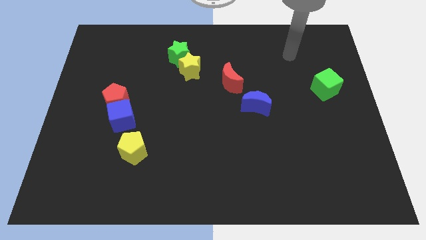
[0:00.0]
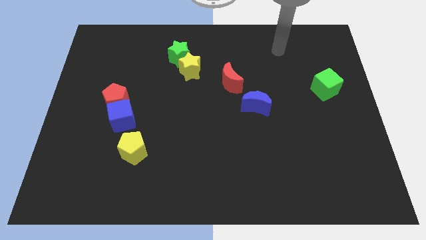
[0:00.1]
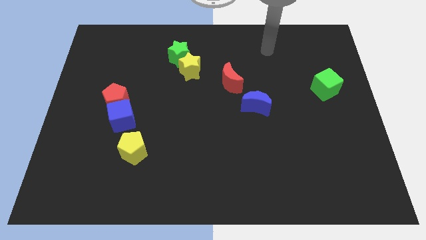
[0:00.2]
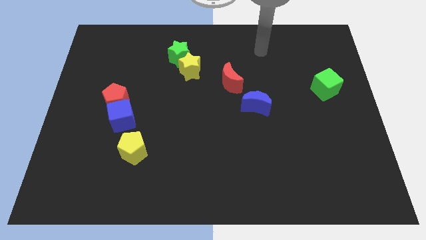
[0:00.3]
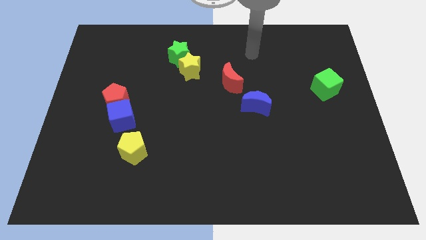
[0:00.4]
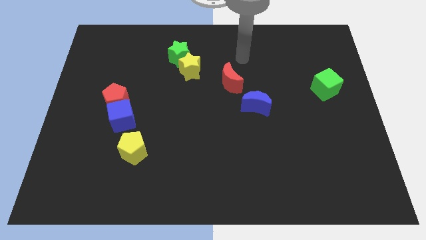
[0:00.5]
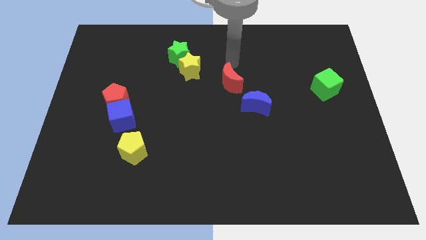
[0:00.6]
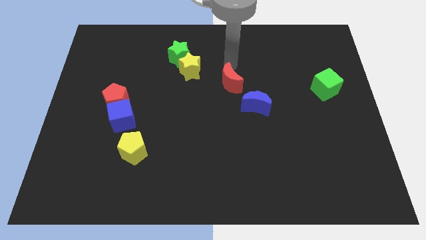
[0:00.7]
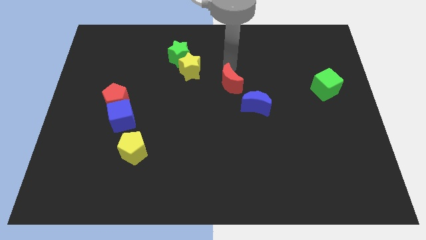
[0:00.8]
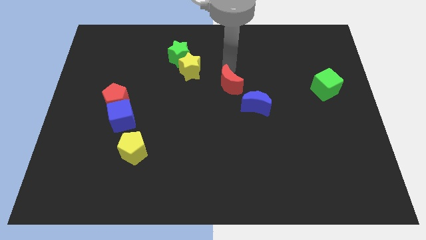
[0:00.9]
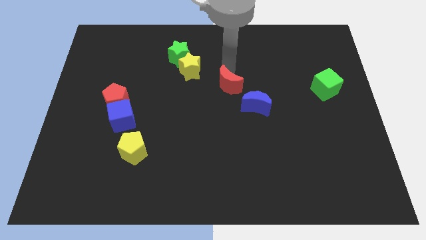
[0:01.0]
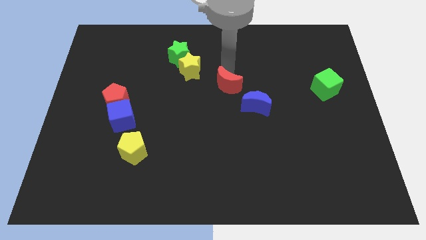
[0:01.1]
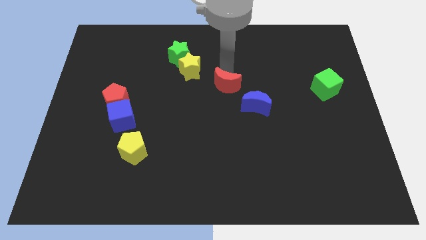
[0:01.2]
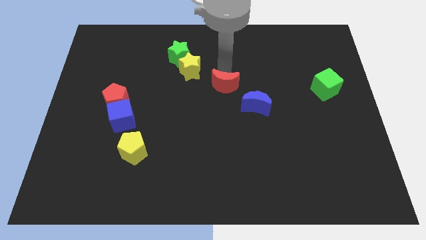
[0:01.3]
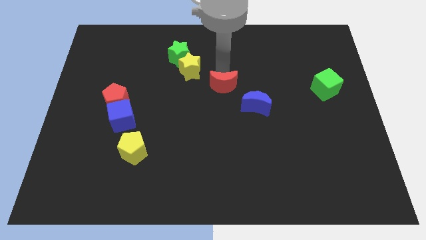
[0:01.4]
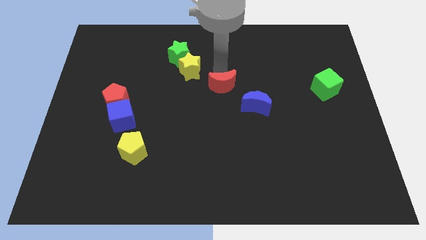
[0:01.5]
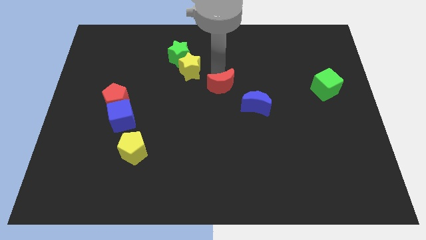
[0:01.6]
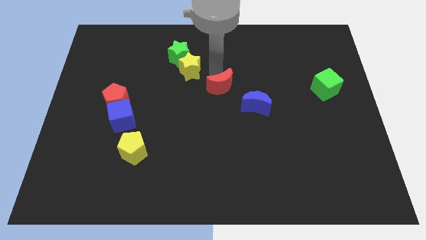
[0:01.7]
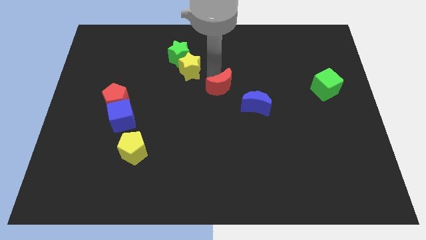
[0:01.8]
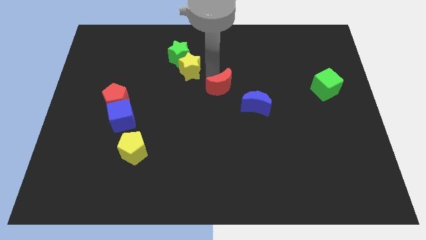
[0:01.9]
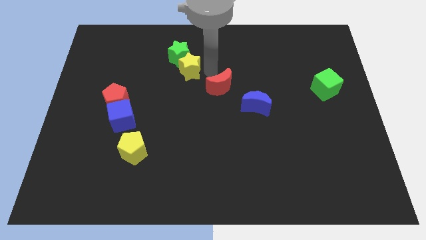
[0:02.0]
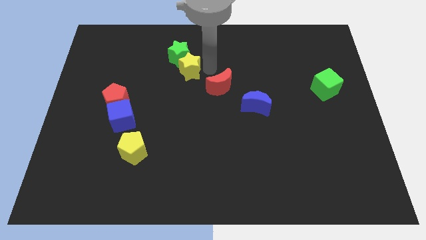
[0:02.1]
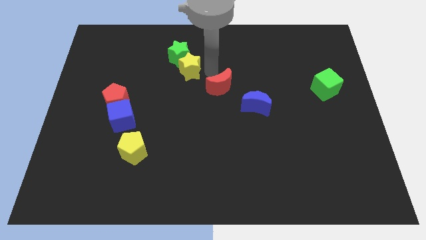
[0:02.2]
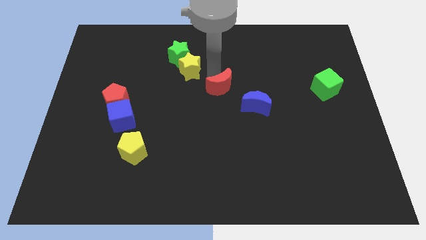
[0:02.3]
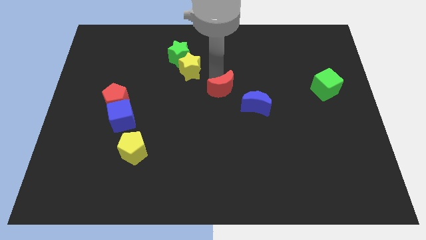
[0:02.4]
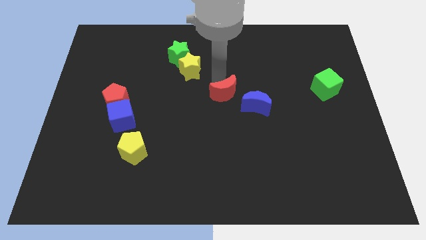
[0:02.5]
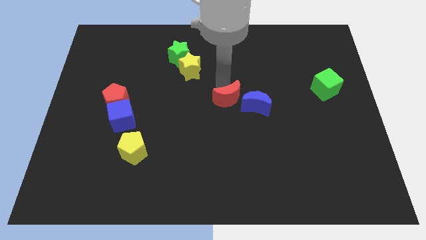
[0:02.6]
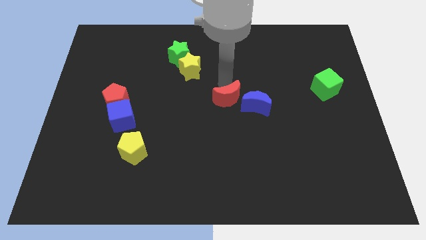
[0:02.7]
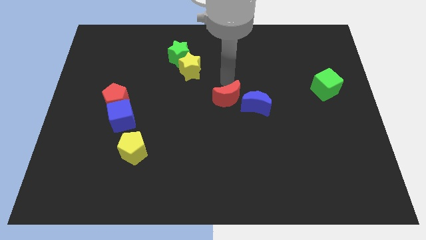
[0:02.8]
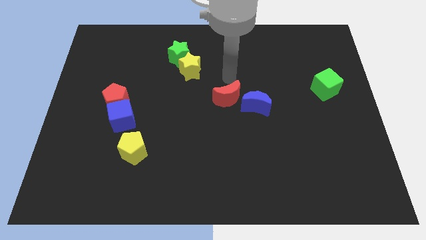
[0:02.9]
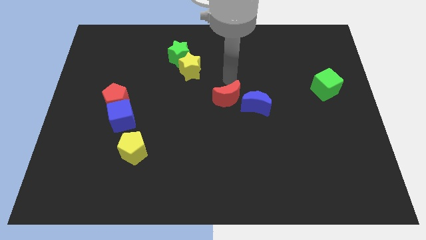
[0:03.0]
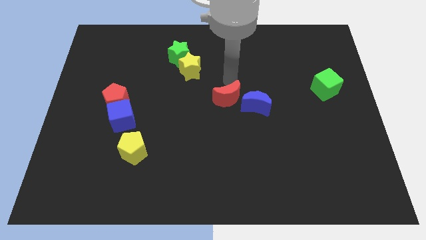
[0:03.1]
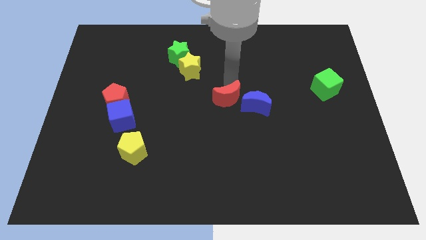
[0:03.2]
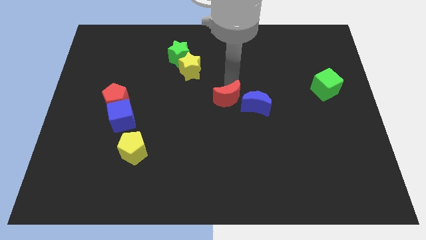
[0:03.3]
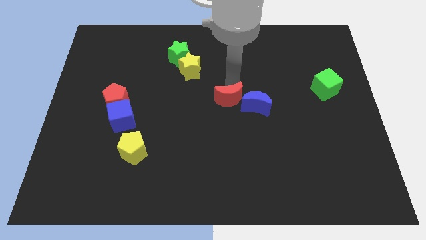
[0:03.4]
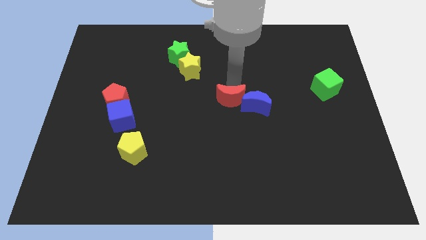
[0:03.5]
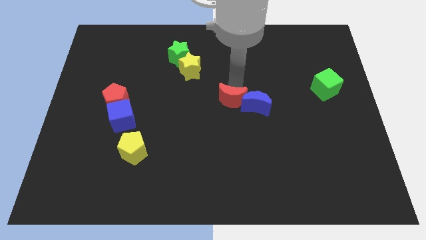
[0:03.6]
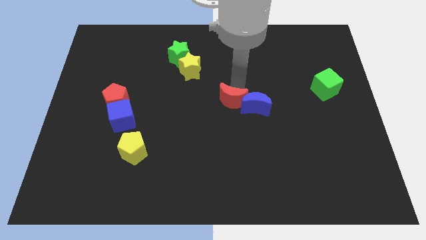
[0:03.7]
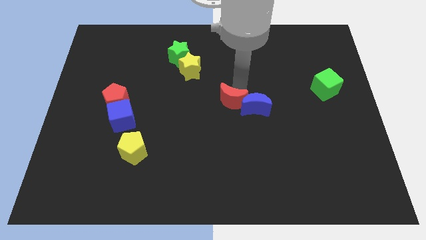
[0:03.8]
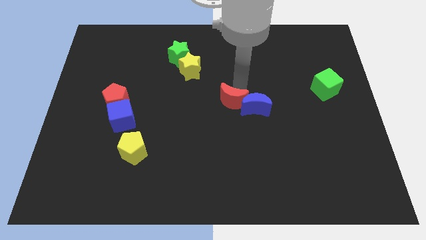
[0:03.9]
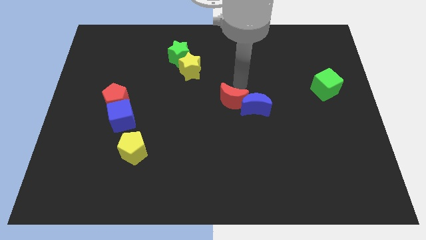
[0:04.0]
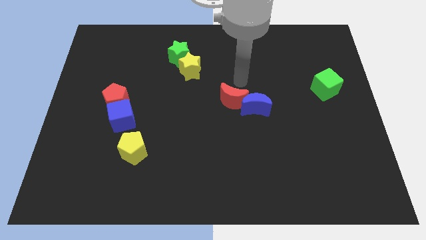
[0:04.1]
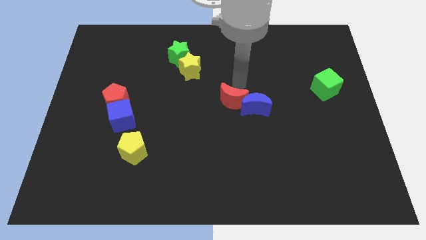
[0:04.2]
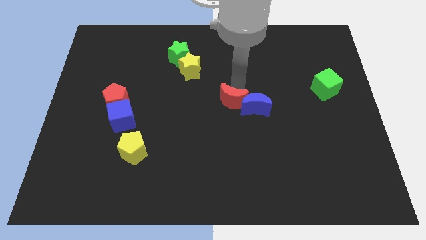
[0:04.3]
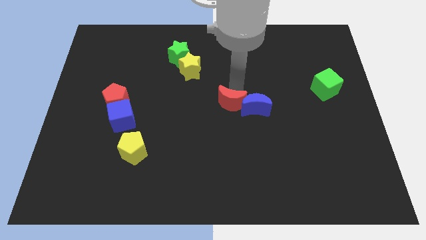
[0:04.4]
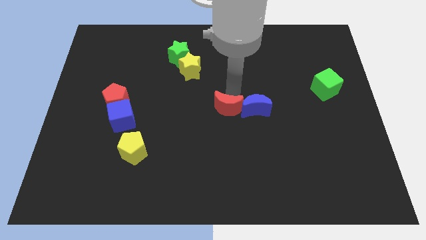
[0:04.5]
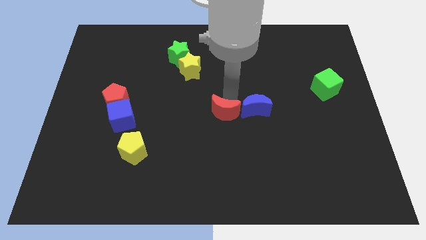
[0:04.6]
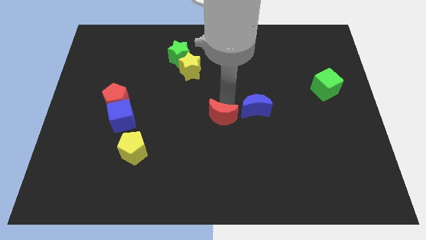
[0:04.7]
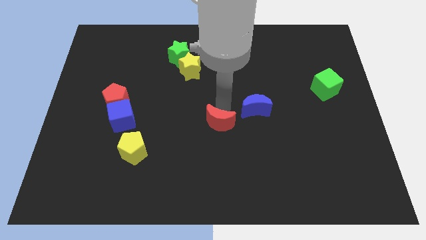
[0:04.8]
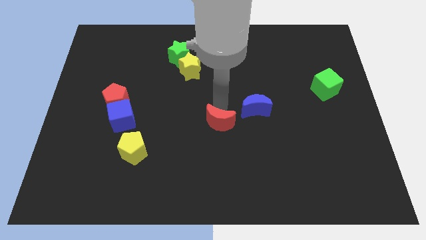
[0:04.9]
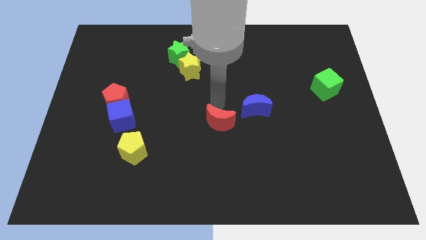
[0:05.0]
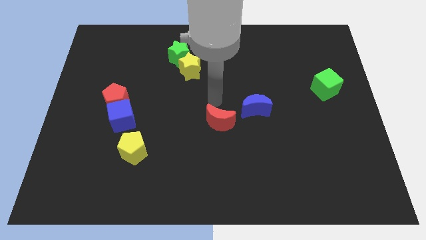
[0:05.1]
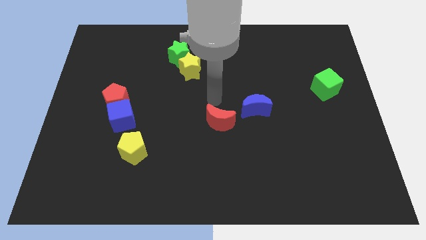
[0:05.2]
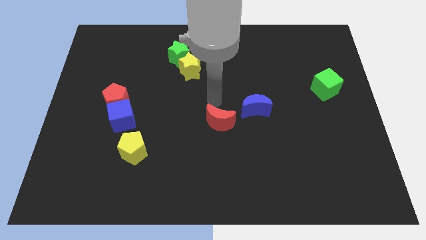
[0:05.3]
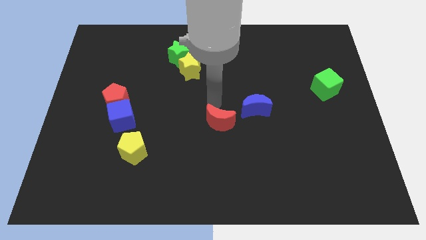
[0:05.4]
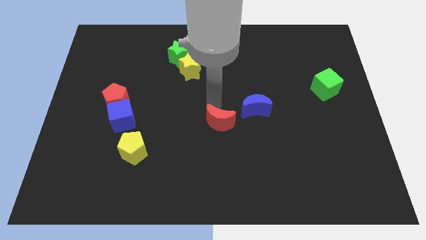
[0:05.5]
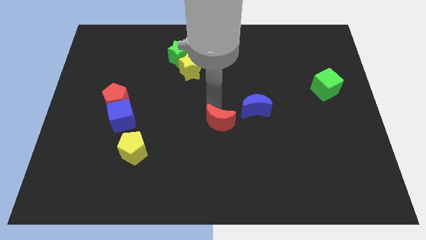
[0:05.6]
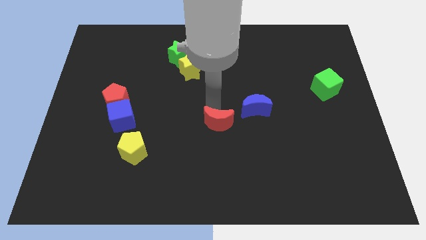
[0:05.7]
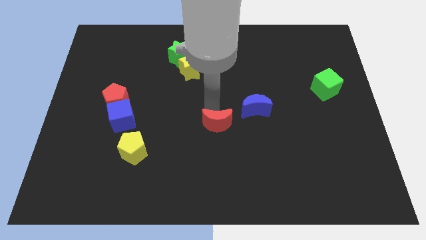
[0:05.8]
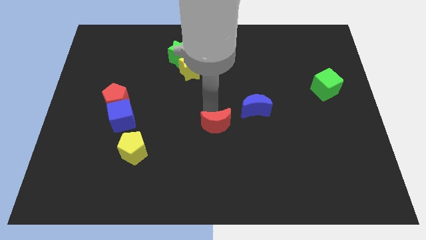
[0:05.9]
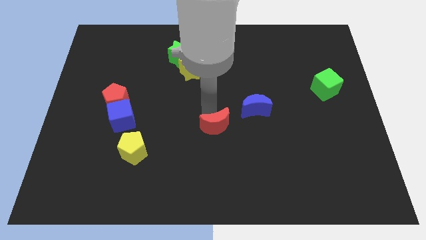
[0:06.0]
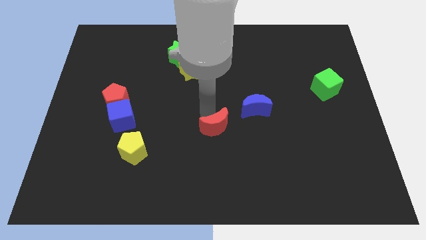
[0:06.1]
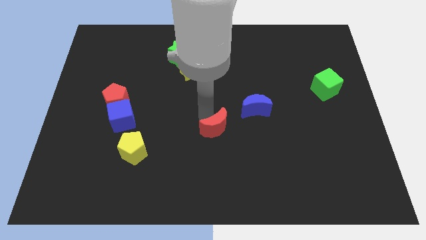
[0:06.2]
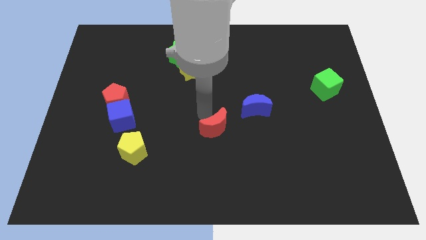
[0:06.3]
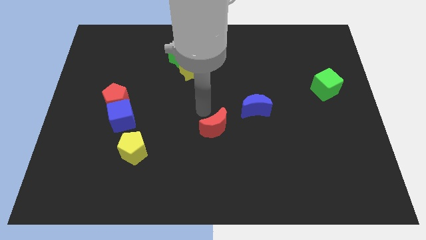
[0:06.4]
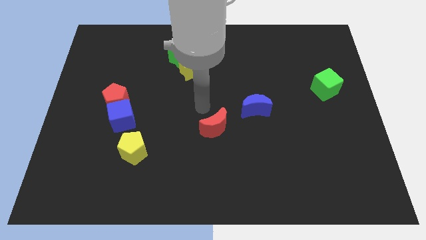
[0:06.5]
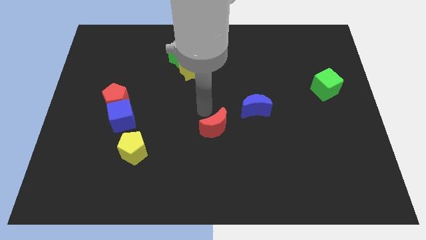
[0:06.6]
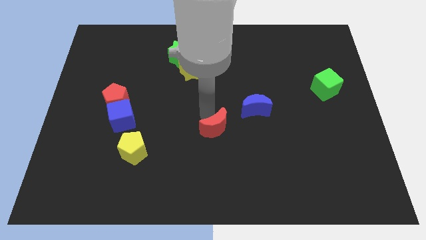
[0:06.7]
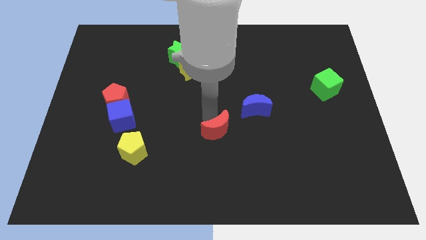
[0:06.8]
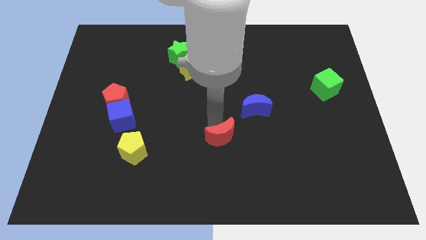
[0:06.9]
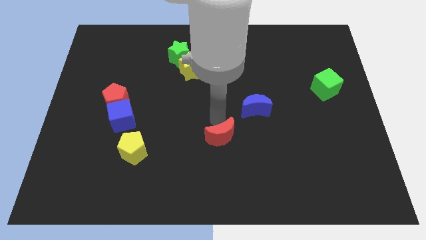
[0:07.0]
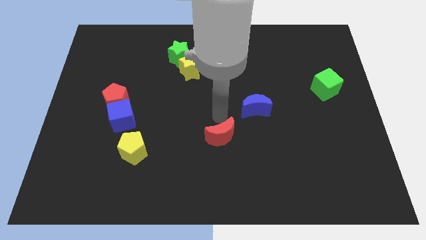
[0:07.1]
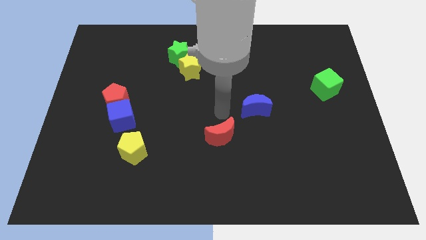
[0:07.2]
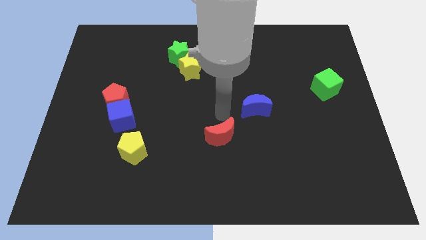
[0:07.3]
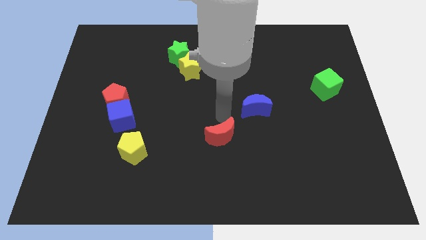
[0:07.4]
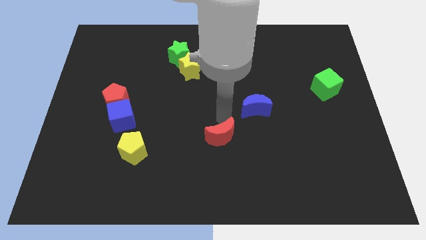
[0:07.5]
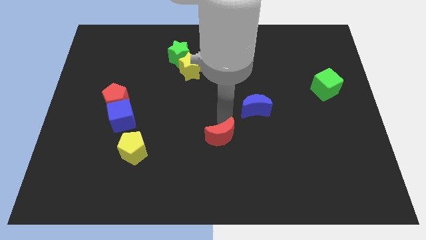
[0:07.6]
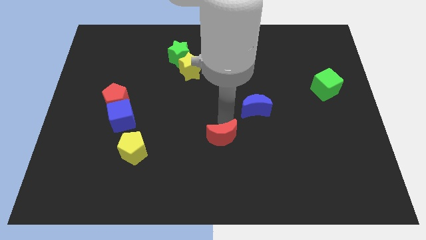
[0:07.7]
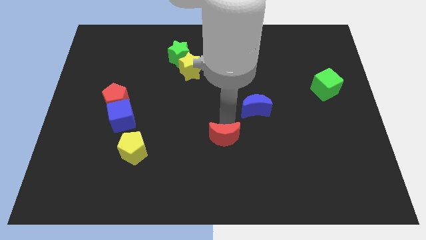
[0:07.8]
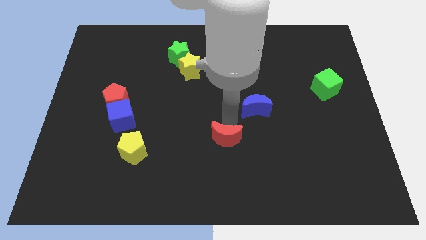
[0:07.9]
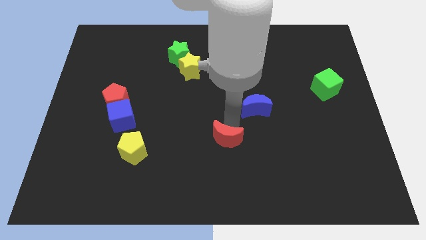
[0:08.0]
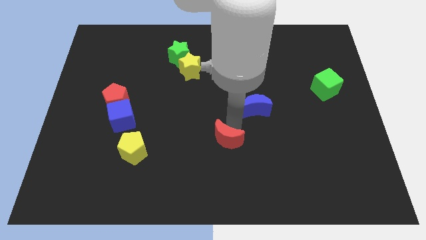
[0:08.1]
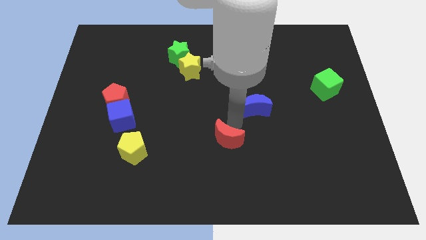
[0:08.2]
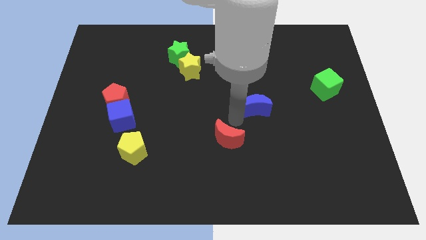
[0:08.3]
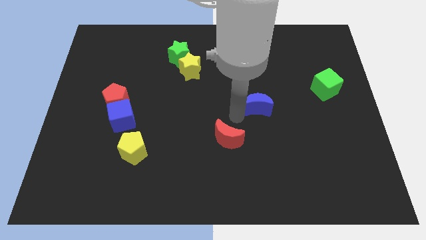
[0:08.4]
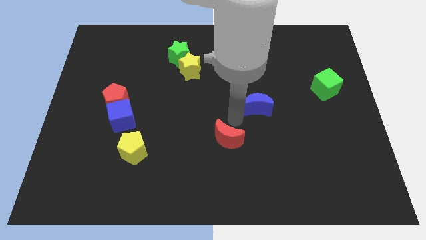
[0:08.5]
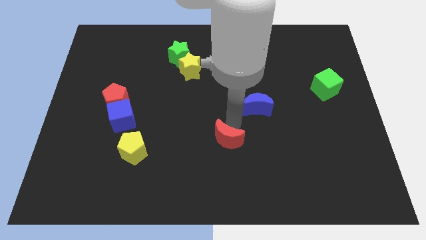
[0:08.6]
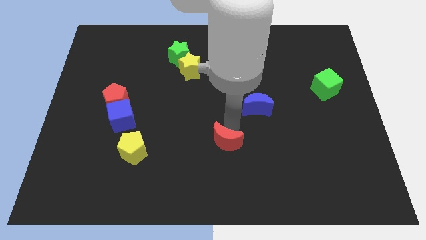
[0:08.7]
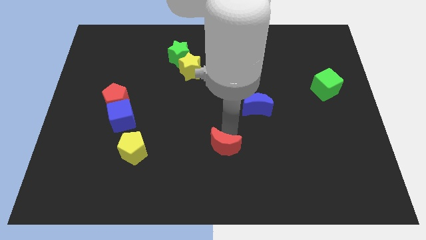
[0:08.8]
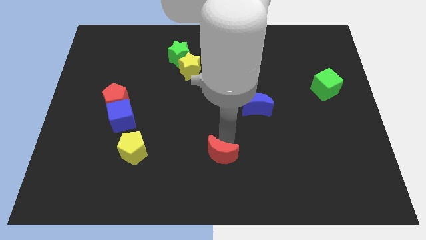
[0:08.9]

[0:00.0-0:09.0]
slide the red moon to the bottom
